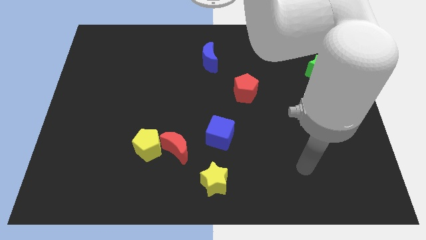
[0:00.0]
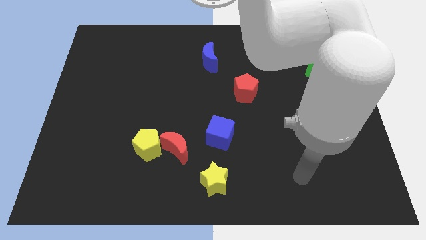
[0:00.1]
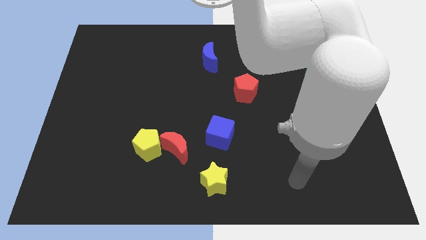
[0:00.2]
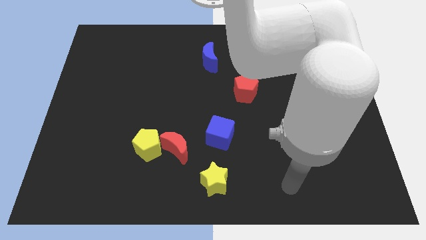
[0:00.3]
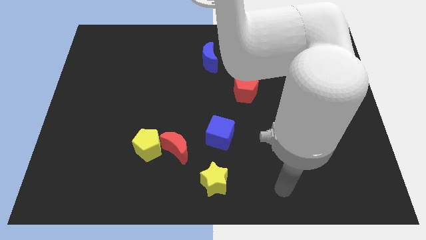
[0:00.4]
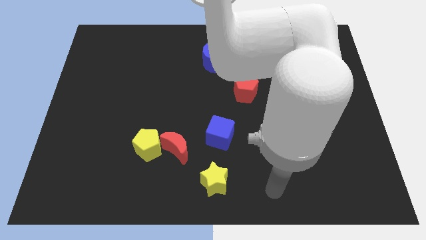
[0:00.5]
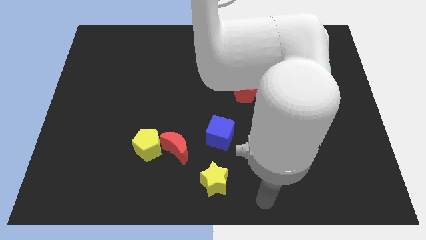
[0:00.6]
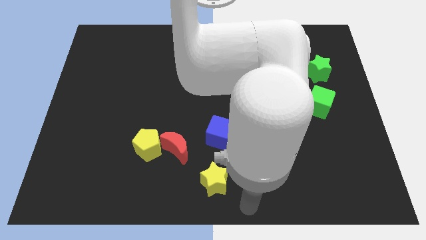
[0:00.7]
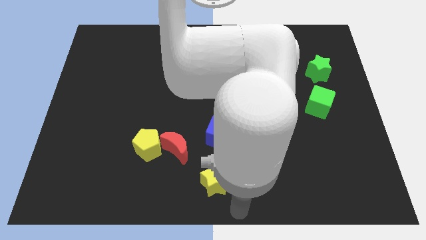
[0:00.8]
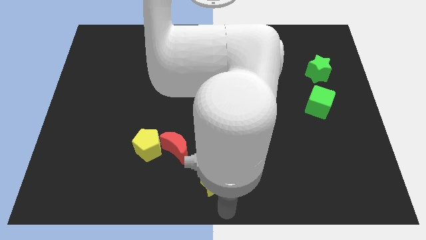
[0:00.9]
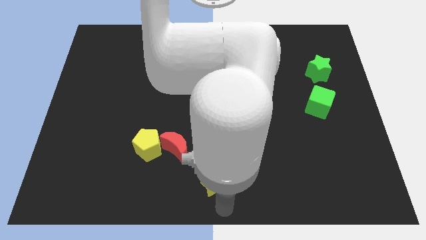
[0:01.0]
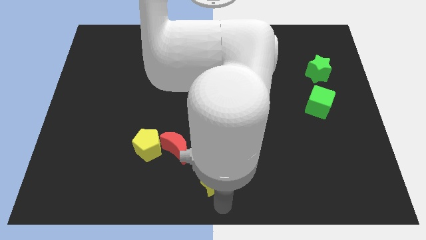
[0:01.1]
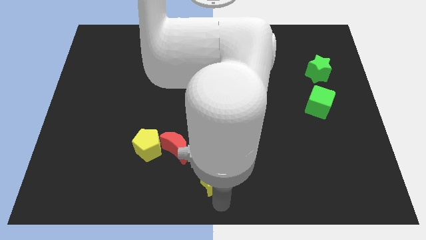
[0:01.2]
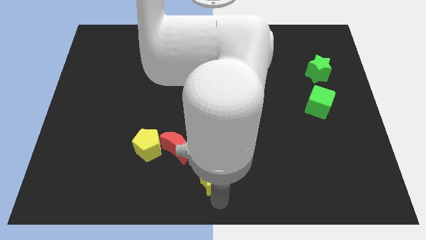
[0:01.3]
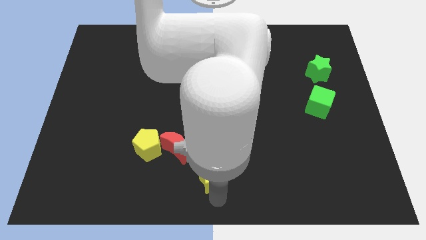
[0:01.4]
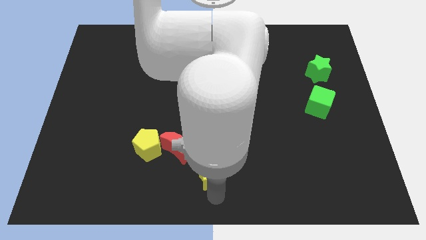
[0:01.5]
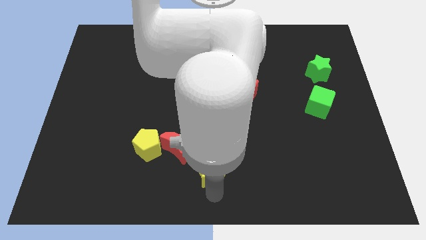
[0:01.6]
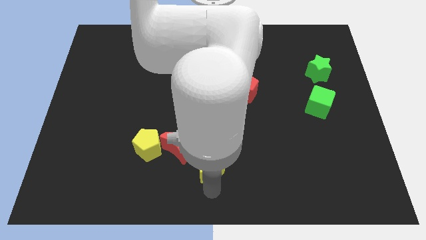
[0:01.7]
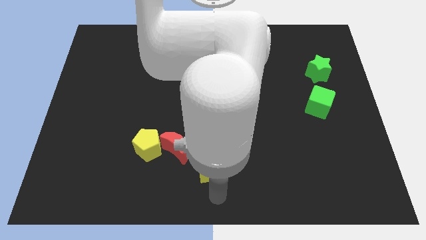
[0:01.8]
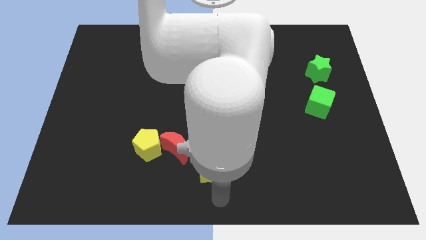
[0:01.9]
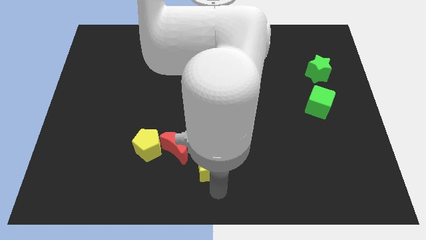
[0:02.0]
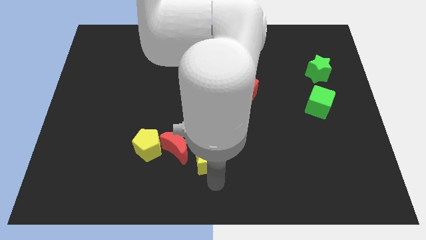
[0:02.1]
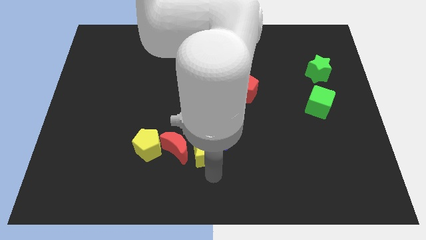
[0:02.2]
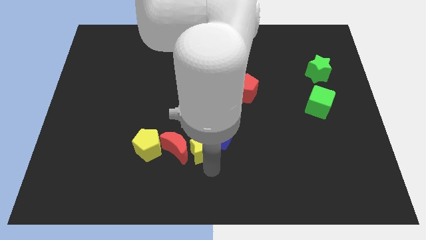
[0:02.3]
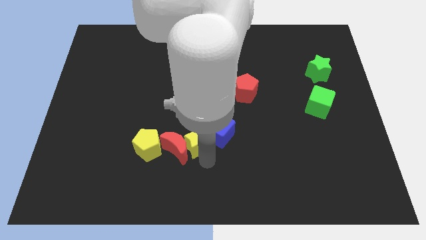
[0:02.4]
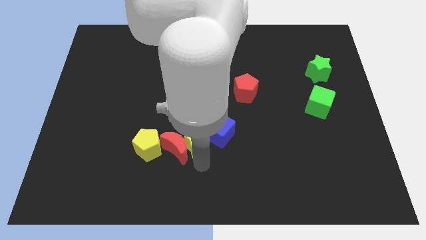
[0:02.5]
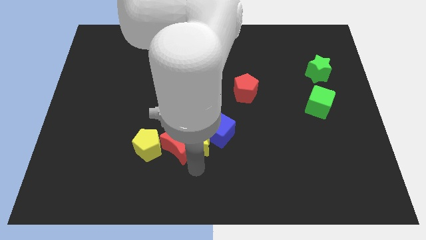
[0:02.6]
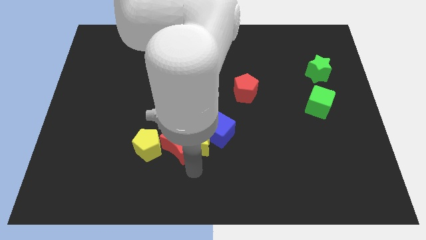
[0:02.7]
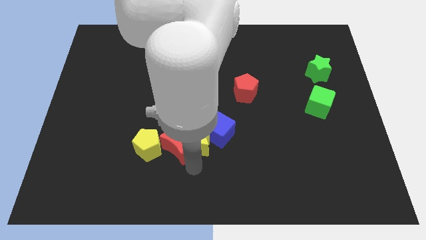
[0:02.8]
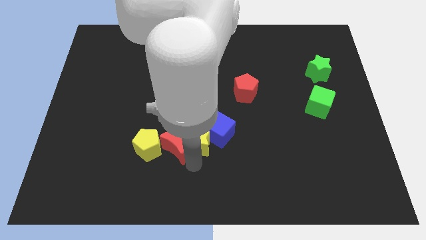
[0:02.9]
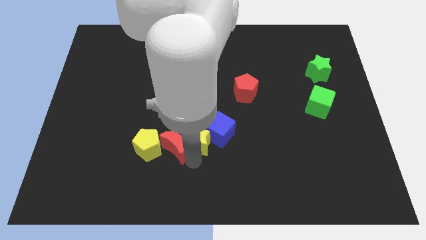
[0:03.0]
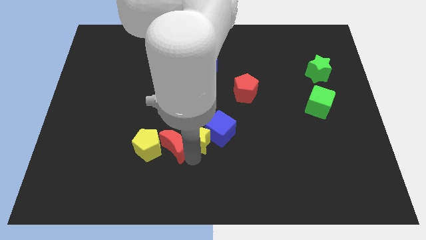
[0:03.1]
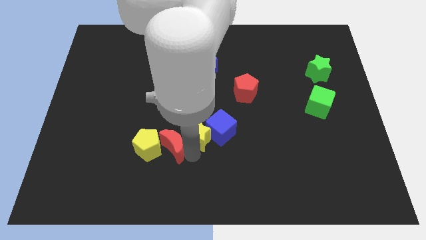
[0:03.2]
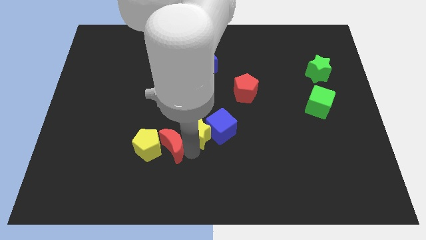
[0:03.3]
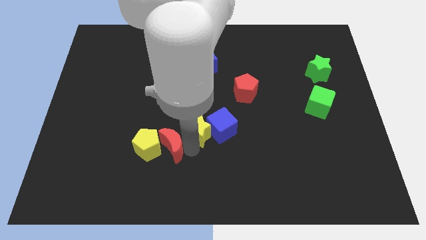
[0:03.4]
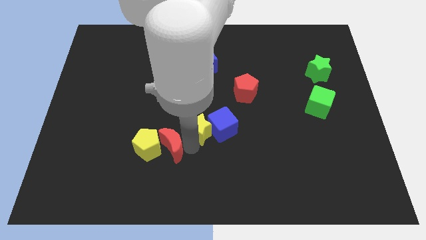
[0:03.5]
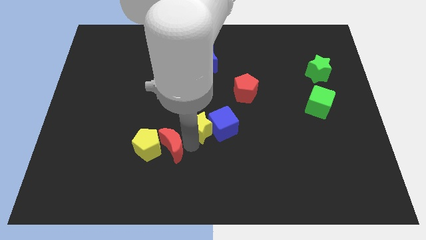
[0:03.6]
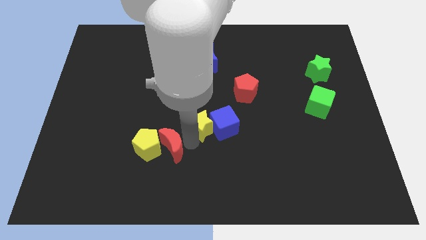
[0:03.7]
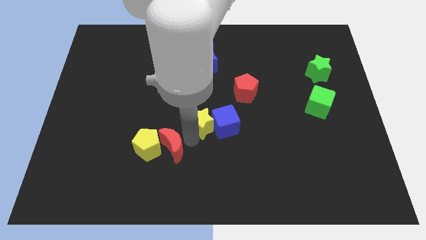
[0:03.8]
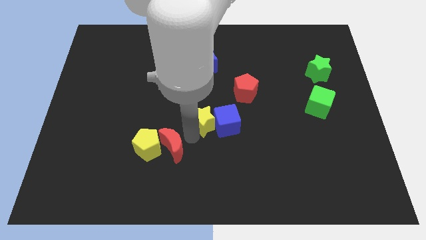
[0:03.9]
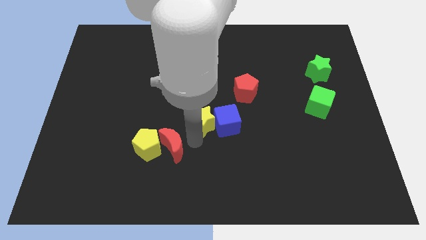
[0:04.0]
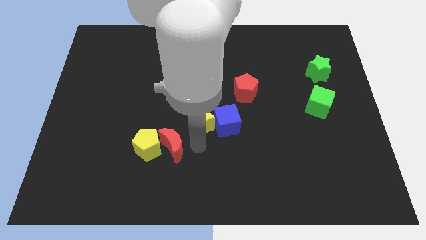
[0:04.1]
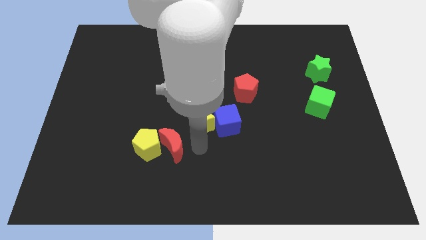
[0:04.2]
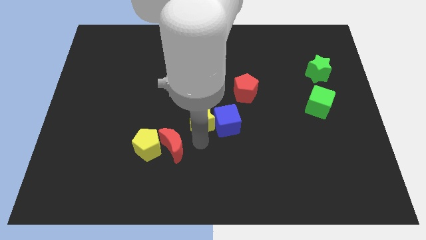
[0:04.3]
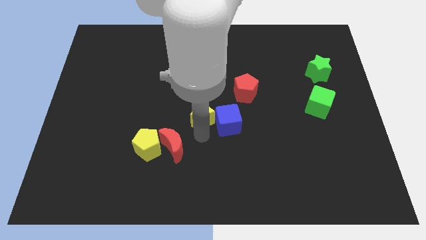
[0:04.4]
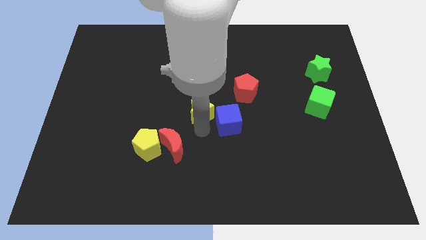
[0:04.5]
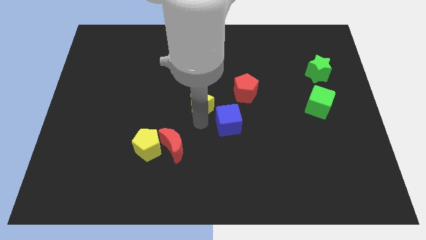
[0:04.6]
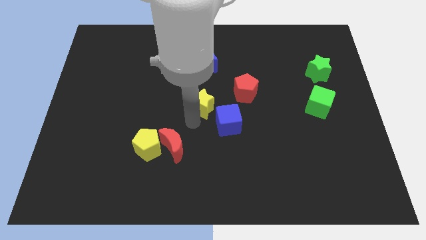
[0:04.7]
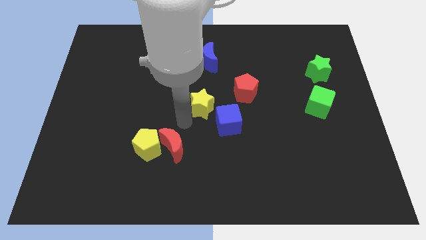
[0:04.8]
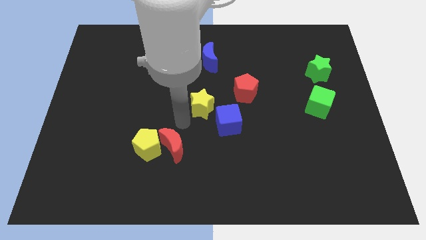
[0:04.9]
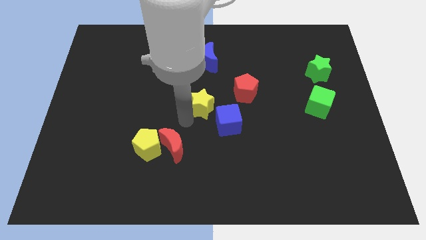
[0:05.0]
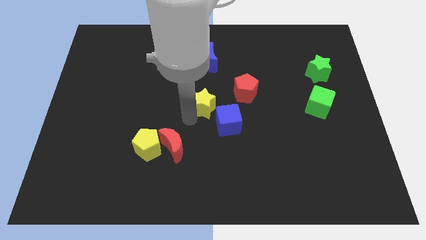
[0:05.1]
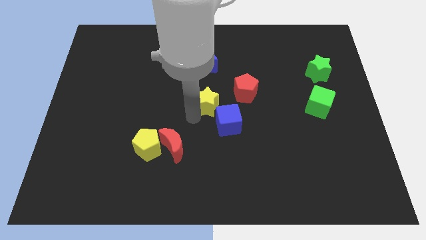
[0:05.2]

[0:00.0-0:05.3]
move the yellow star to the top of the blue cube

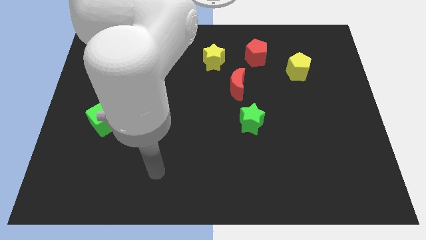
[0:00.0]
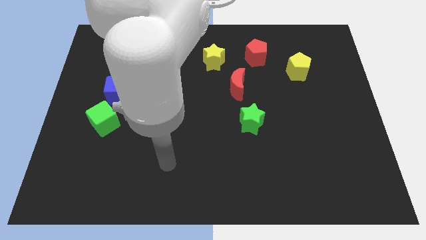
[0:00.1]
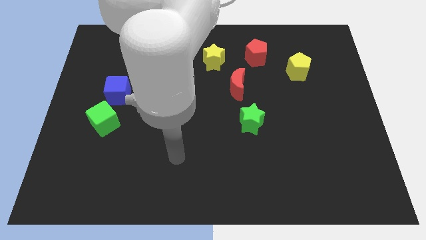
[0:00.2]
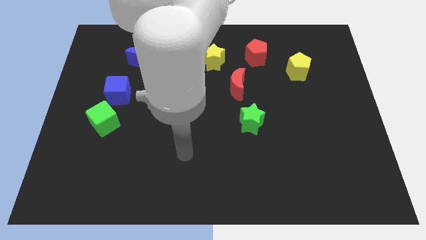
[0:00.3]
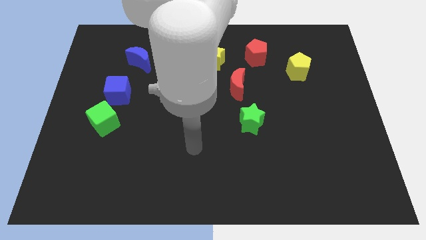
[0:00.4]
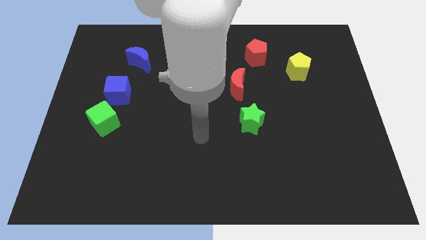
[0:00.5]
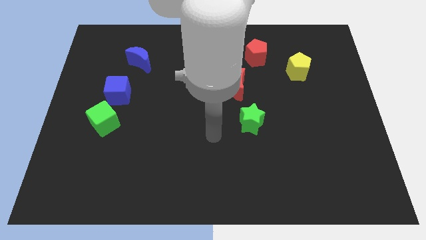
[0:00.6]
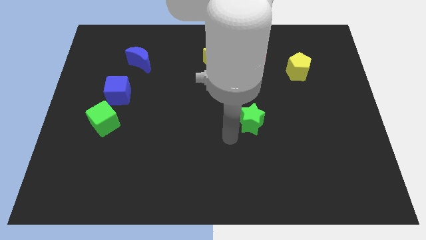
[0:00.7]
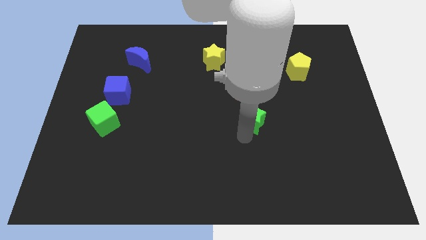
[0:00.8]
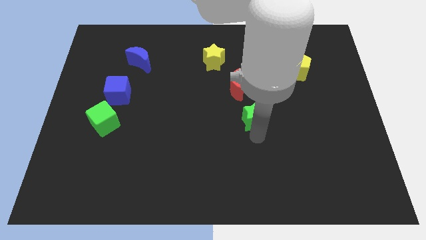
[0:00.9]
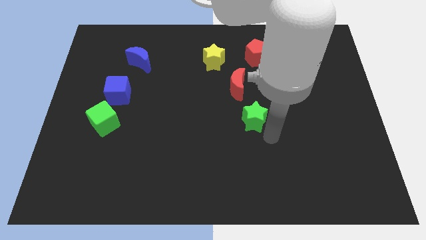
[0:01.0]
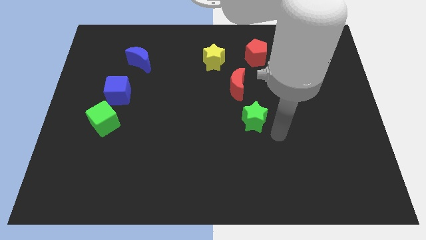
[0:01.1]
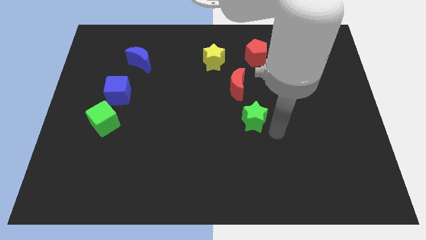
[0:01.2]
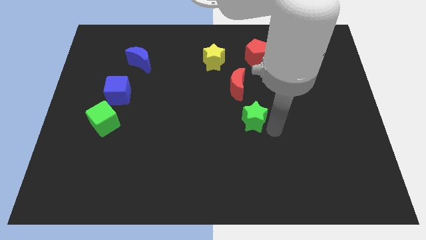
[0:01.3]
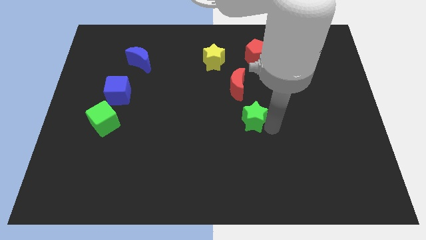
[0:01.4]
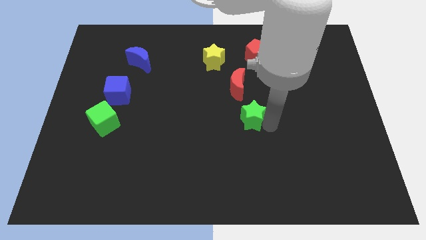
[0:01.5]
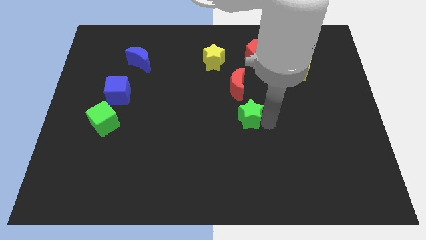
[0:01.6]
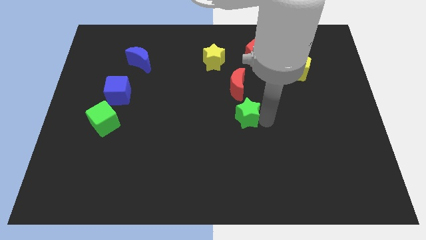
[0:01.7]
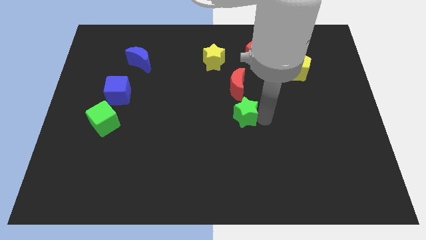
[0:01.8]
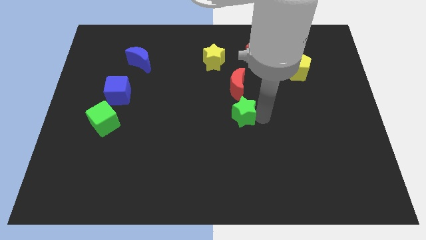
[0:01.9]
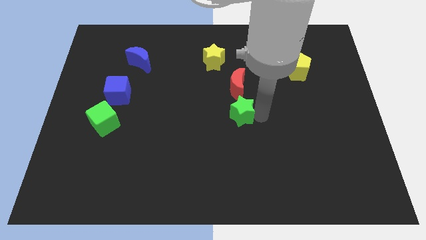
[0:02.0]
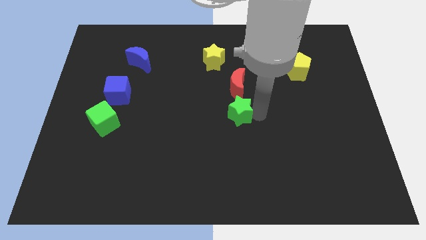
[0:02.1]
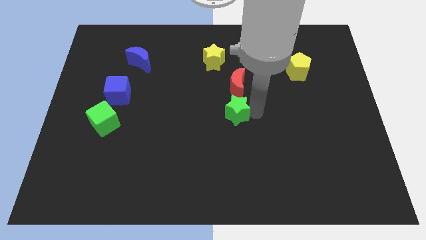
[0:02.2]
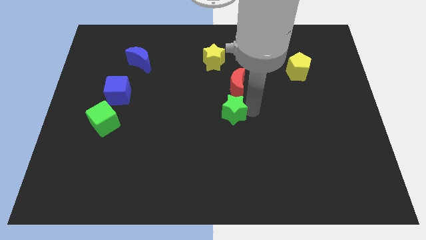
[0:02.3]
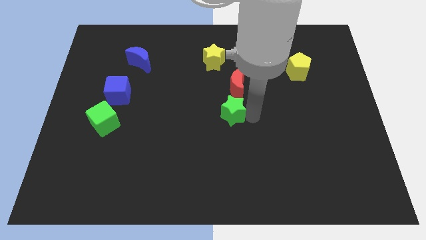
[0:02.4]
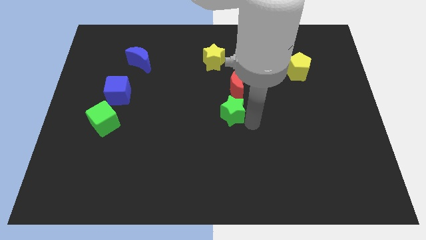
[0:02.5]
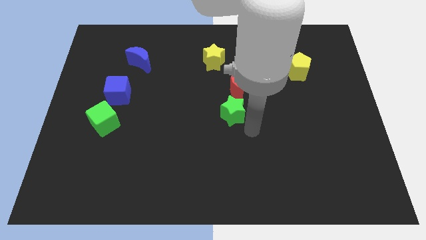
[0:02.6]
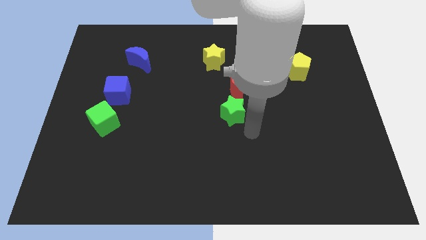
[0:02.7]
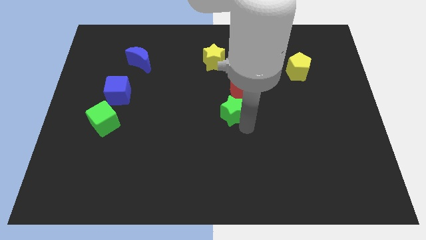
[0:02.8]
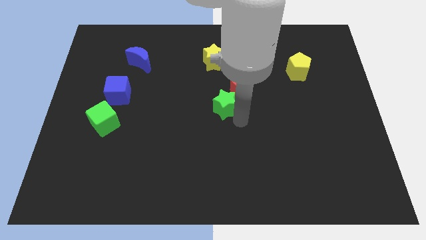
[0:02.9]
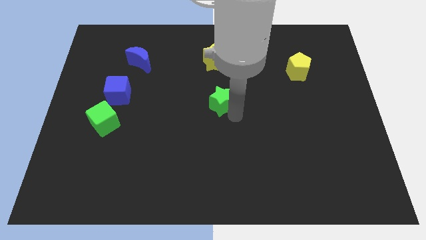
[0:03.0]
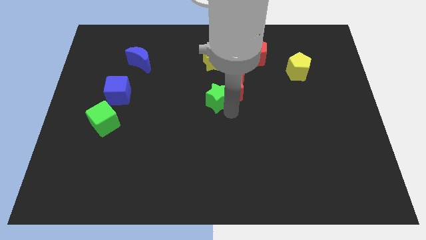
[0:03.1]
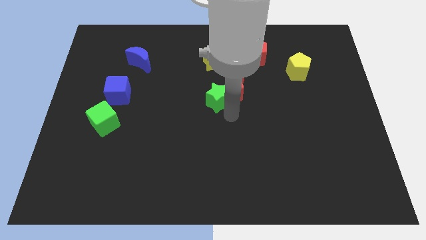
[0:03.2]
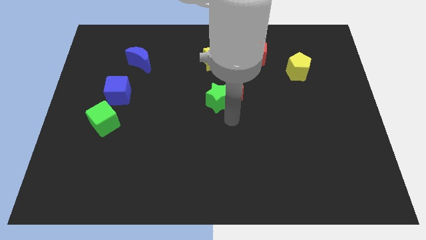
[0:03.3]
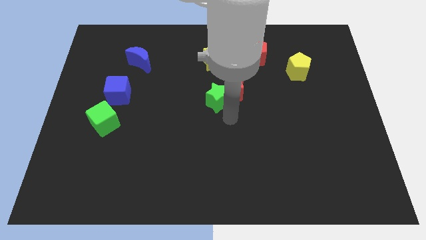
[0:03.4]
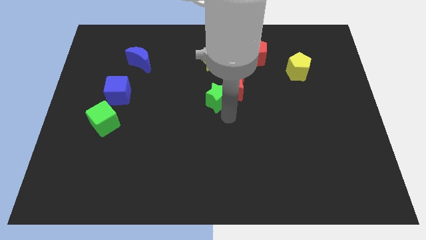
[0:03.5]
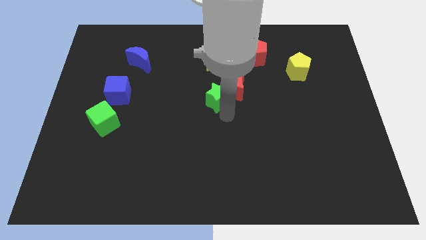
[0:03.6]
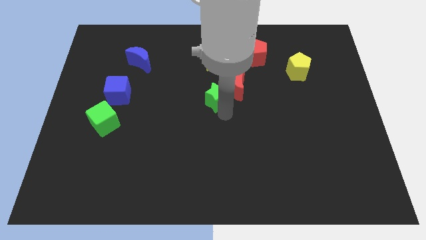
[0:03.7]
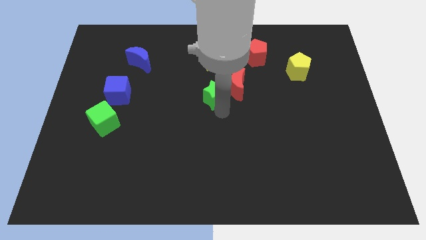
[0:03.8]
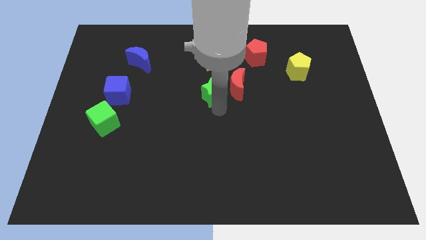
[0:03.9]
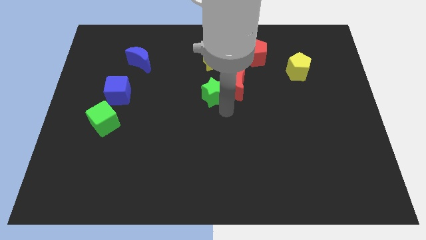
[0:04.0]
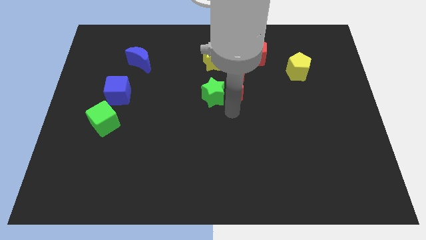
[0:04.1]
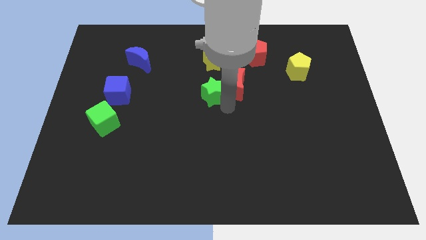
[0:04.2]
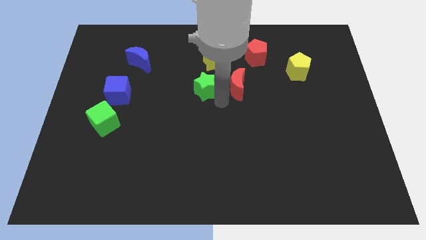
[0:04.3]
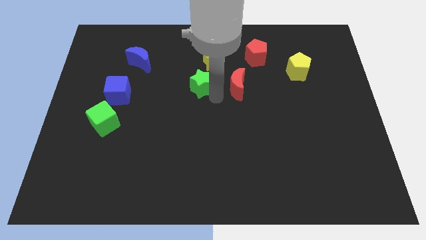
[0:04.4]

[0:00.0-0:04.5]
slide the green star to the bottom left of the yellow star
